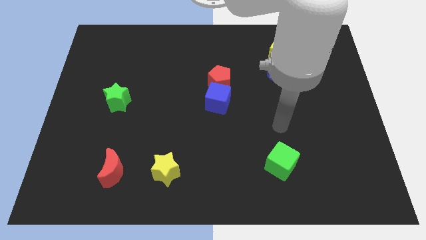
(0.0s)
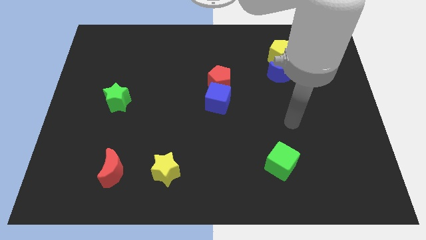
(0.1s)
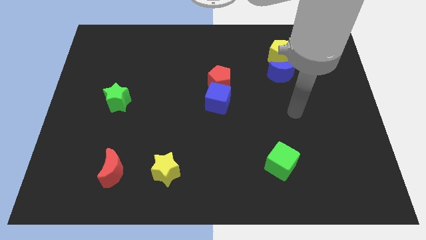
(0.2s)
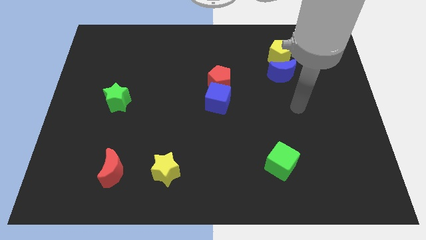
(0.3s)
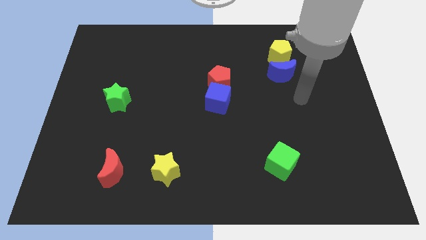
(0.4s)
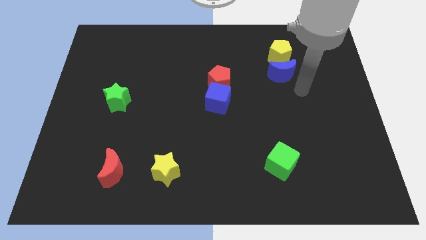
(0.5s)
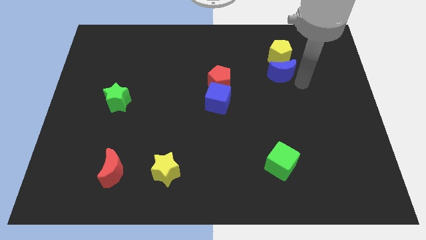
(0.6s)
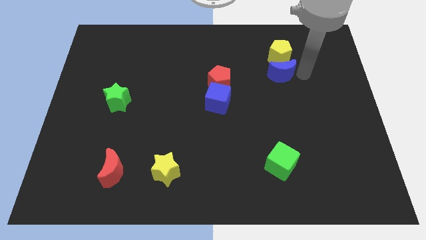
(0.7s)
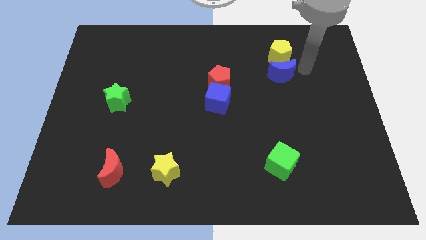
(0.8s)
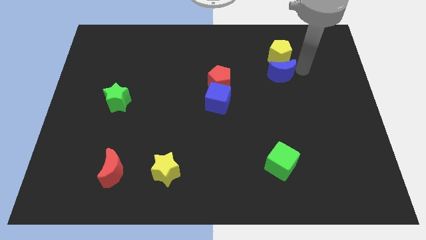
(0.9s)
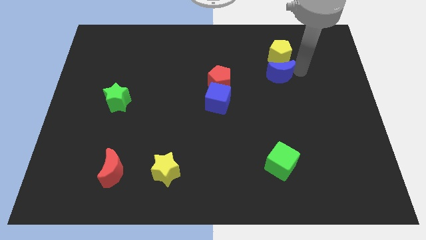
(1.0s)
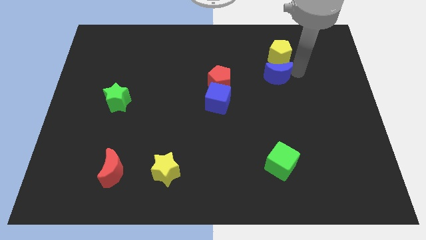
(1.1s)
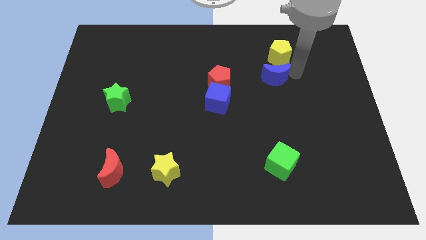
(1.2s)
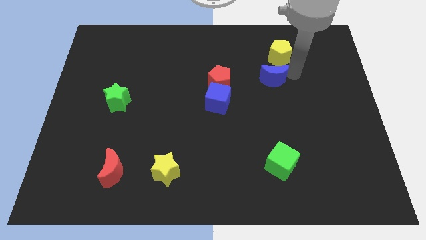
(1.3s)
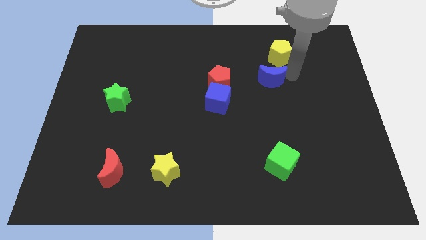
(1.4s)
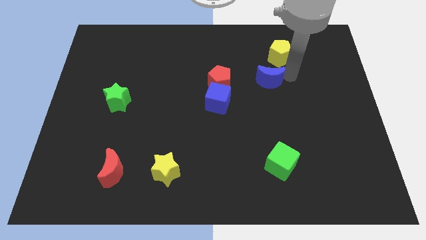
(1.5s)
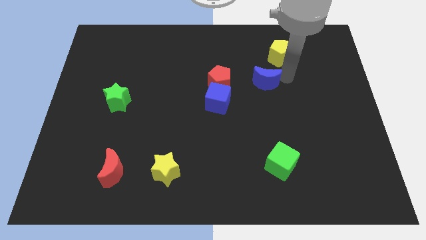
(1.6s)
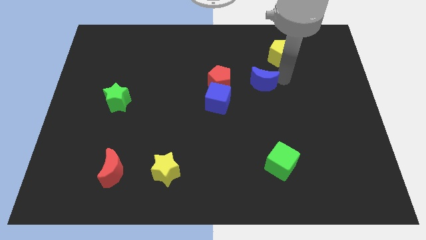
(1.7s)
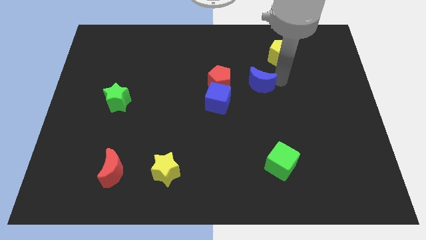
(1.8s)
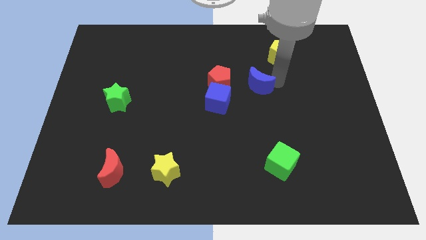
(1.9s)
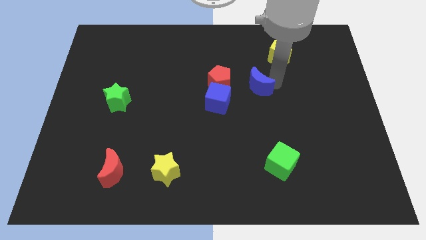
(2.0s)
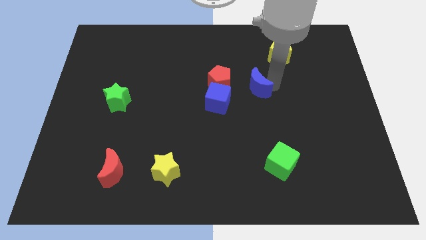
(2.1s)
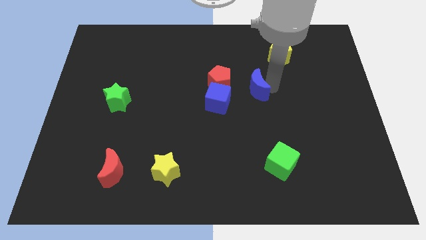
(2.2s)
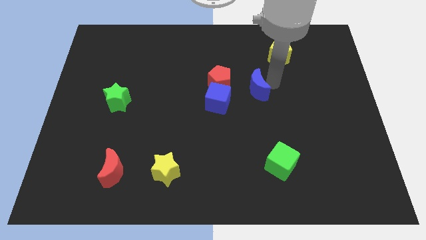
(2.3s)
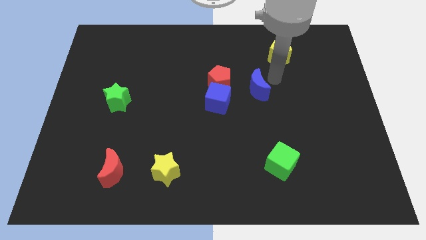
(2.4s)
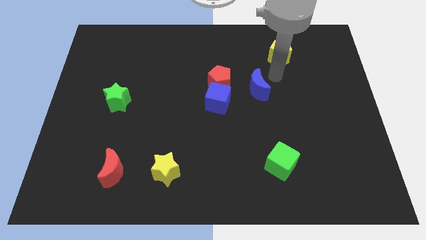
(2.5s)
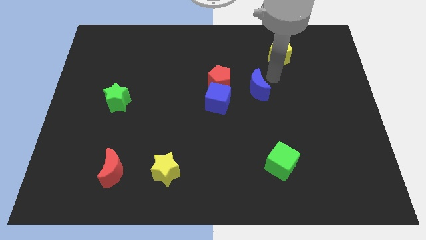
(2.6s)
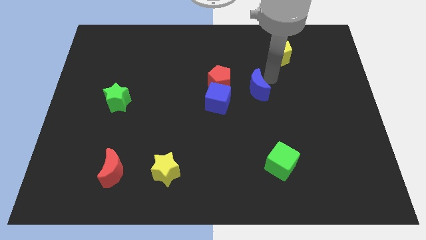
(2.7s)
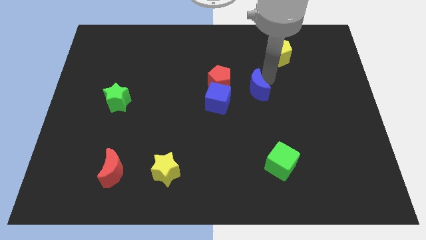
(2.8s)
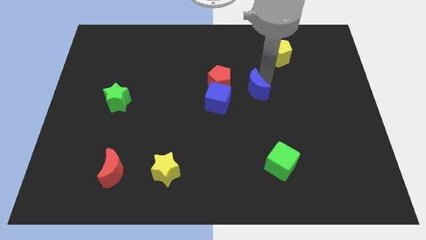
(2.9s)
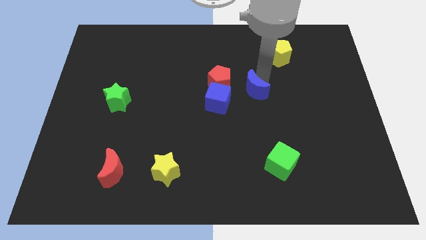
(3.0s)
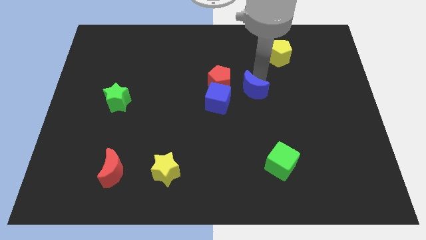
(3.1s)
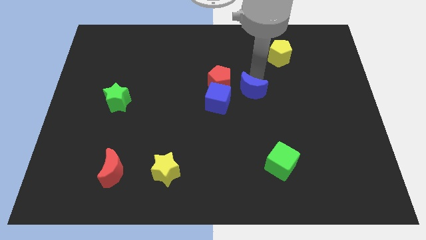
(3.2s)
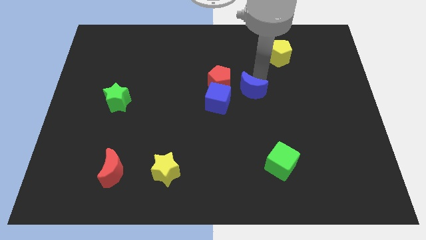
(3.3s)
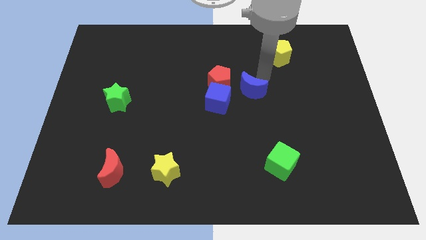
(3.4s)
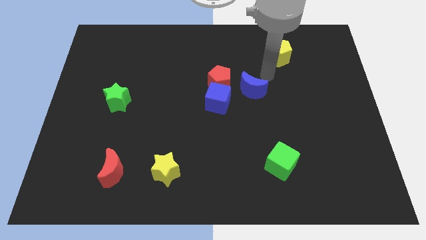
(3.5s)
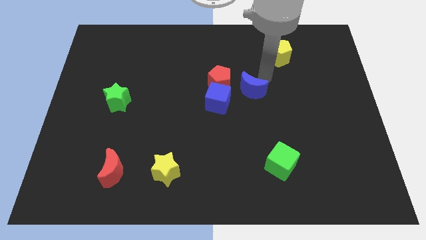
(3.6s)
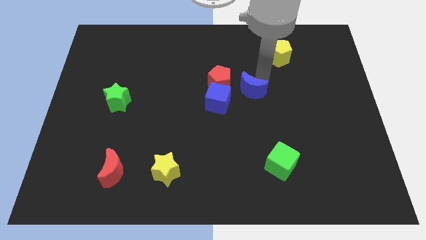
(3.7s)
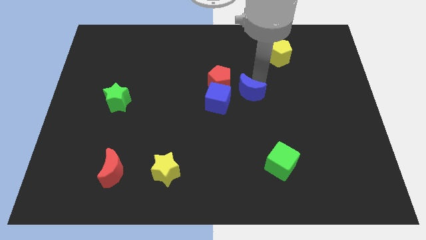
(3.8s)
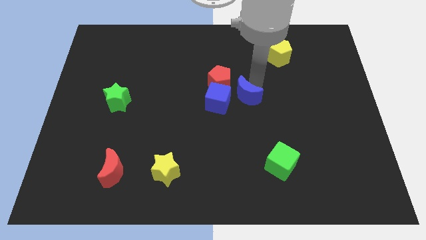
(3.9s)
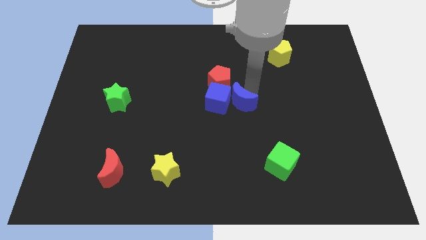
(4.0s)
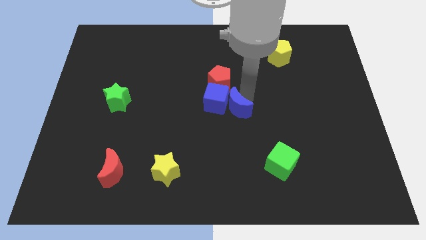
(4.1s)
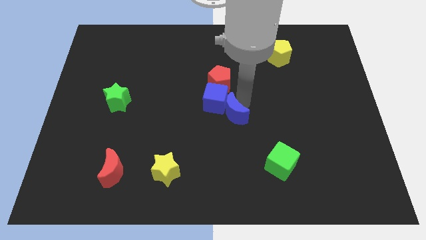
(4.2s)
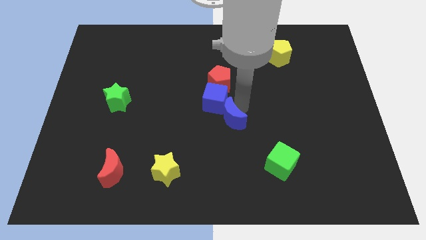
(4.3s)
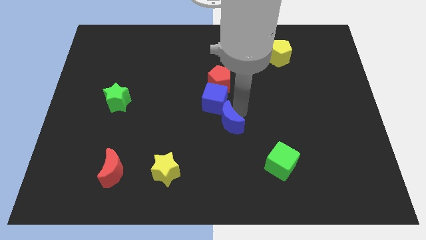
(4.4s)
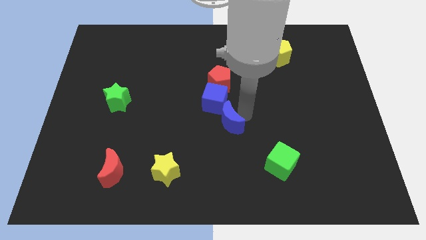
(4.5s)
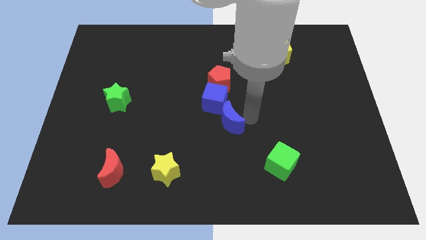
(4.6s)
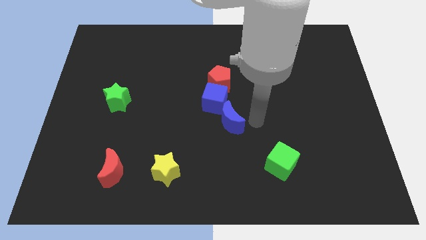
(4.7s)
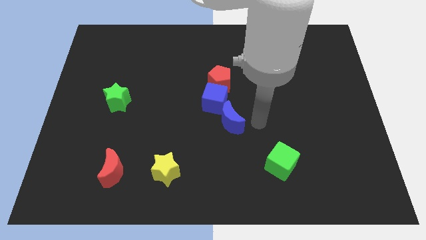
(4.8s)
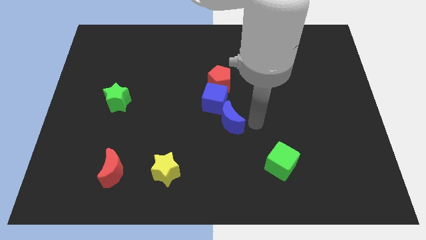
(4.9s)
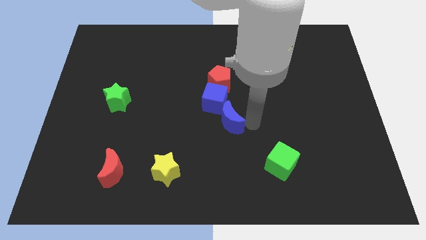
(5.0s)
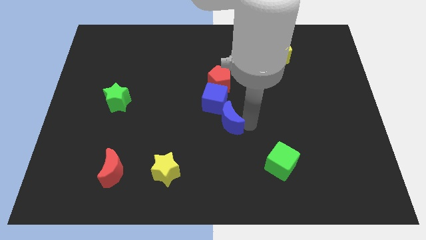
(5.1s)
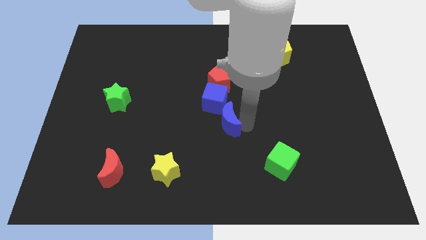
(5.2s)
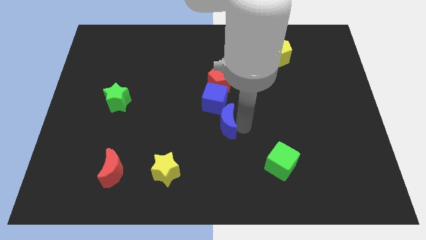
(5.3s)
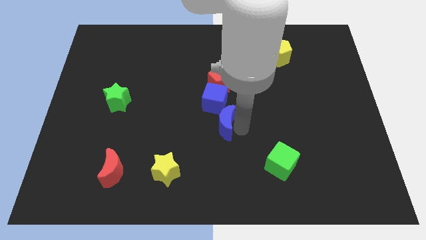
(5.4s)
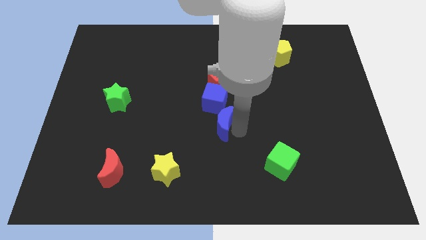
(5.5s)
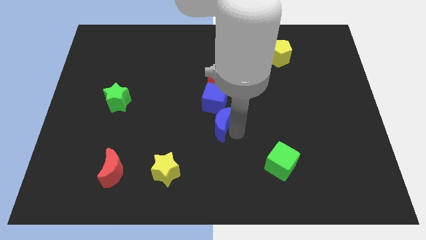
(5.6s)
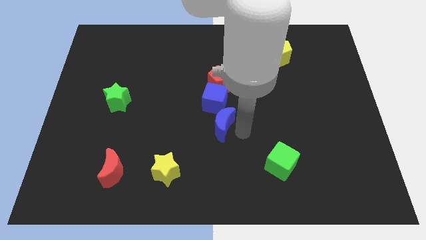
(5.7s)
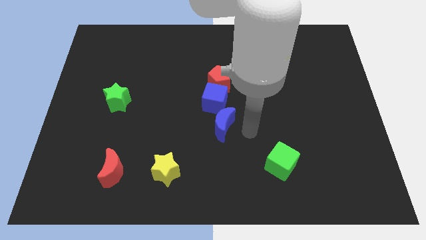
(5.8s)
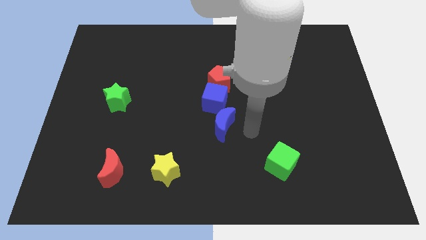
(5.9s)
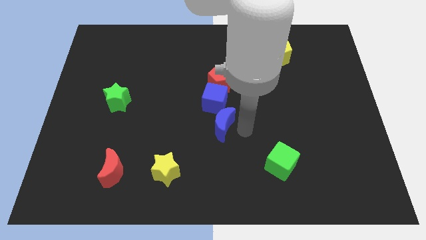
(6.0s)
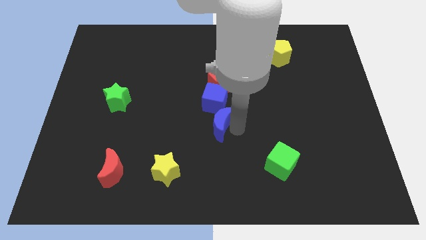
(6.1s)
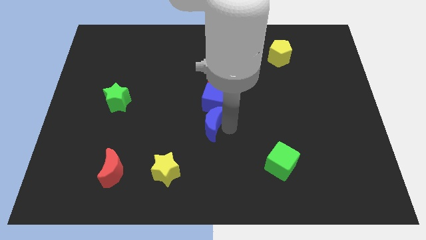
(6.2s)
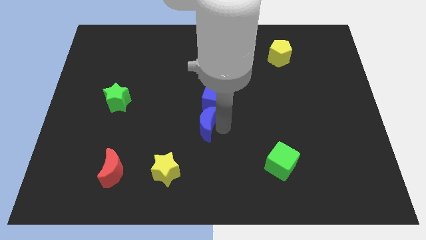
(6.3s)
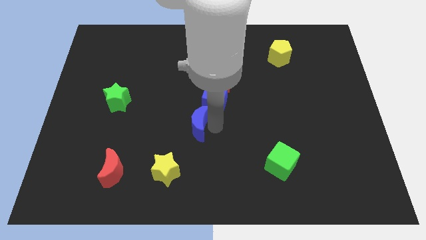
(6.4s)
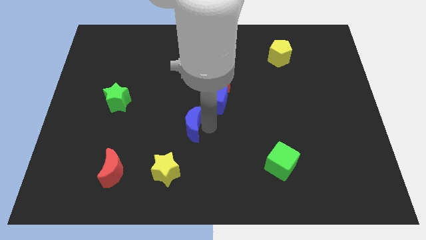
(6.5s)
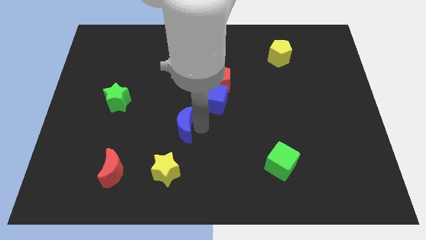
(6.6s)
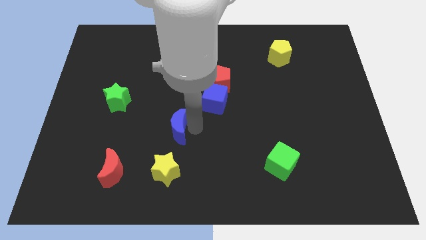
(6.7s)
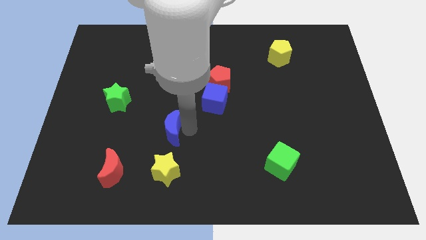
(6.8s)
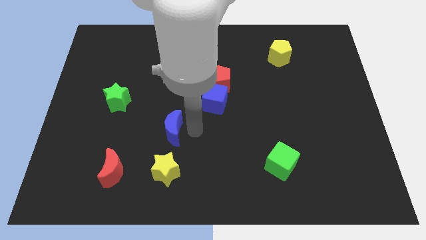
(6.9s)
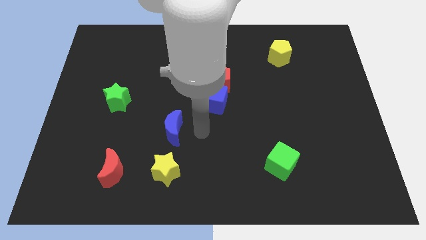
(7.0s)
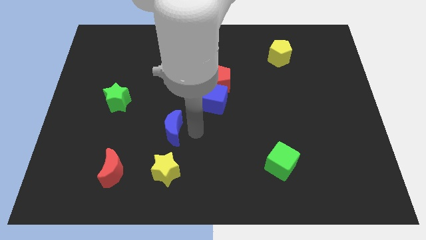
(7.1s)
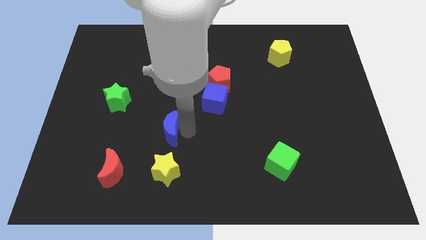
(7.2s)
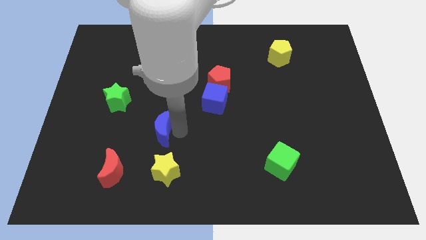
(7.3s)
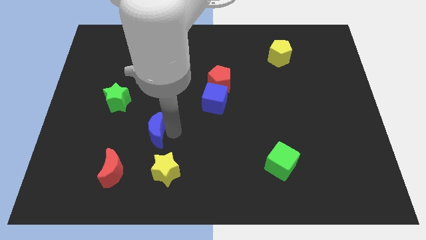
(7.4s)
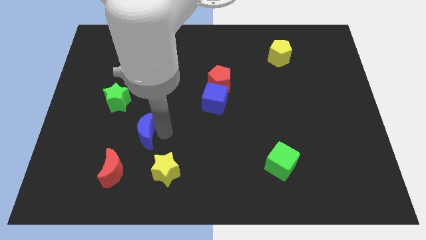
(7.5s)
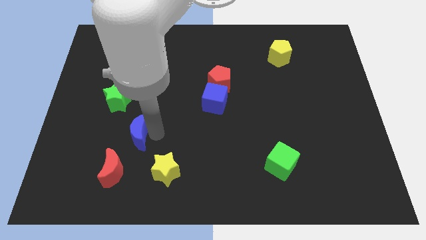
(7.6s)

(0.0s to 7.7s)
push the blue moon above the red moon
